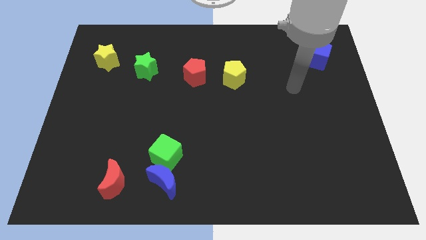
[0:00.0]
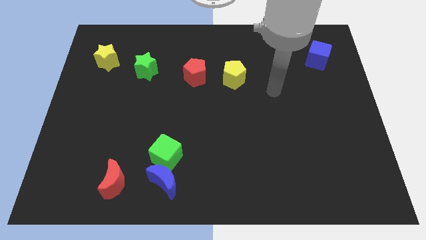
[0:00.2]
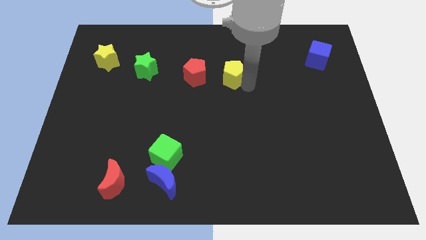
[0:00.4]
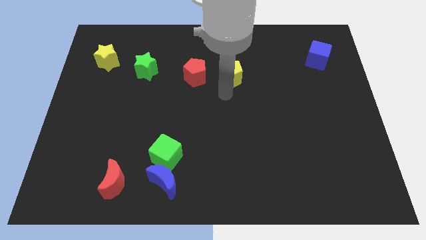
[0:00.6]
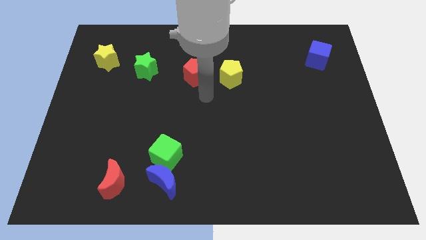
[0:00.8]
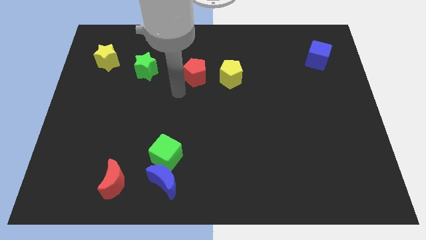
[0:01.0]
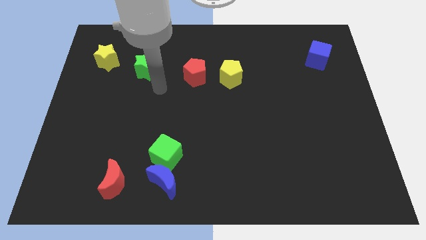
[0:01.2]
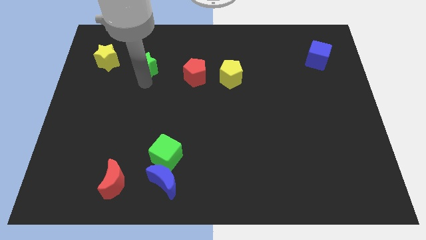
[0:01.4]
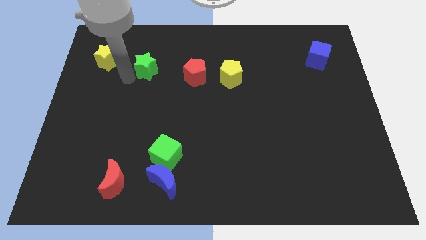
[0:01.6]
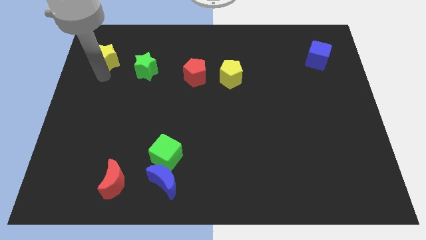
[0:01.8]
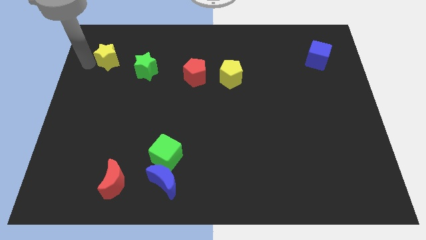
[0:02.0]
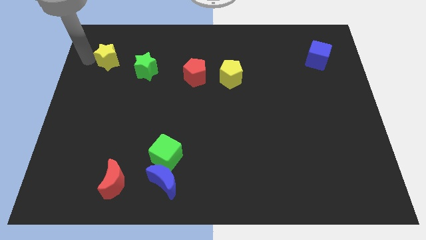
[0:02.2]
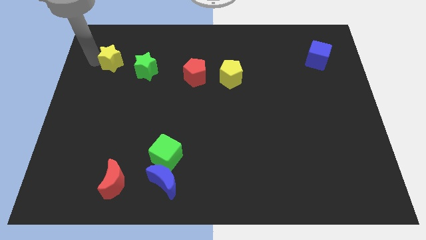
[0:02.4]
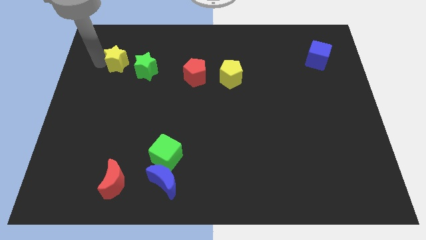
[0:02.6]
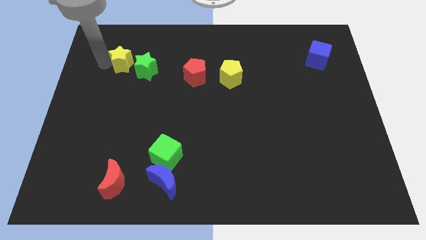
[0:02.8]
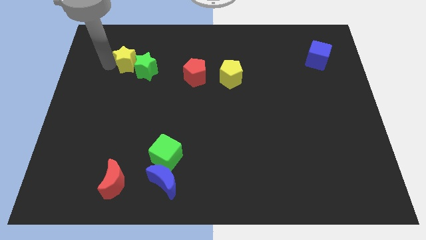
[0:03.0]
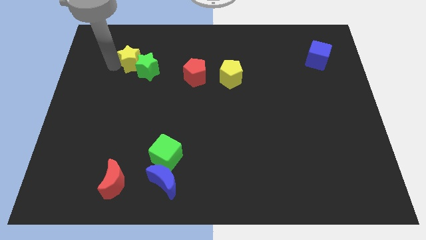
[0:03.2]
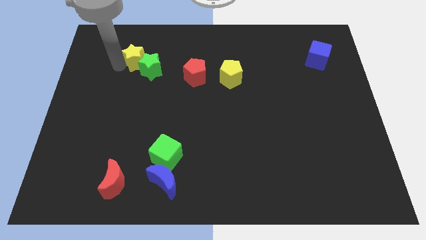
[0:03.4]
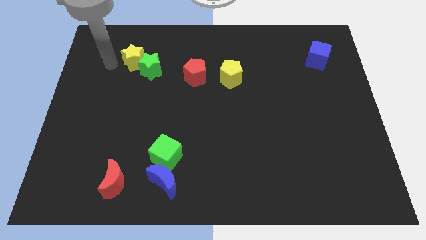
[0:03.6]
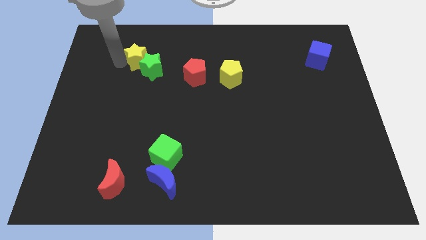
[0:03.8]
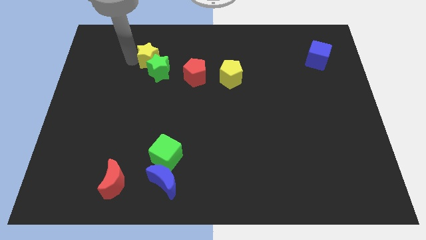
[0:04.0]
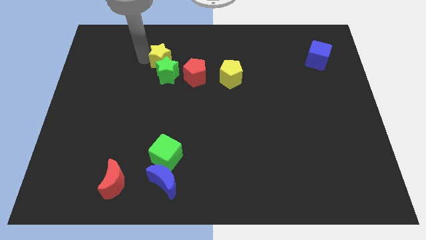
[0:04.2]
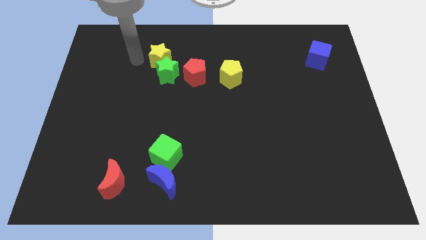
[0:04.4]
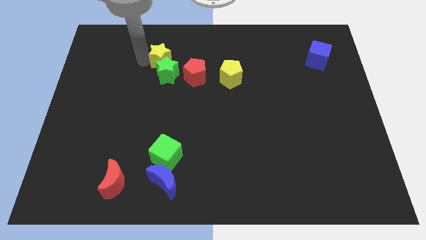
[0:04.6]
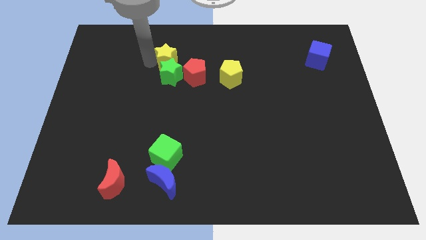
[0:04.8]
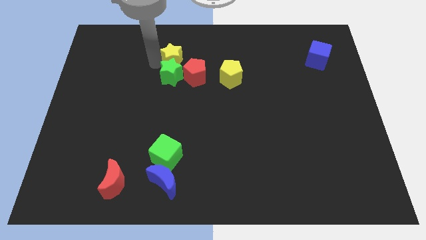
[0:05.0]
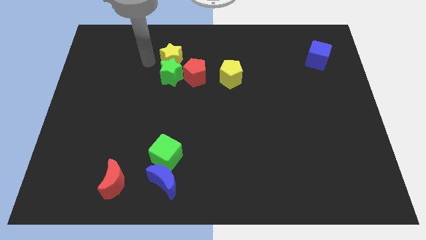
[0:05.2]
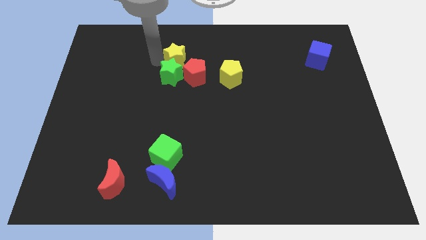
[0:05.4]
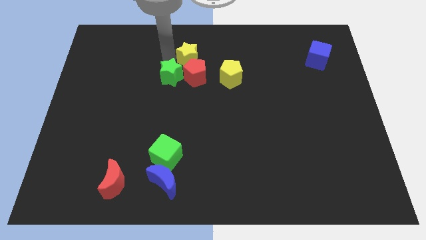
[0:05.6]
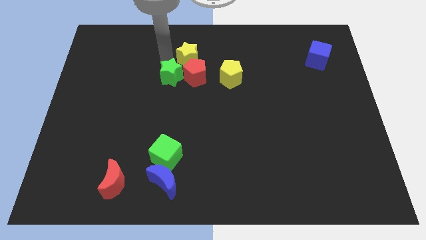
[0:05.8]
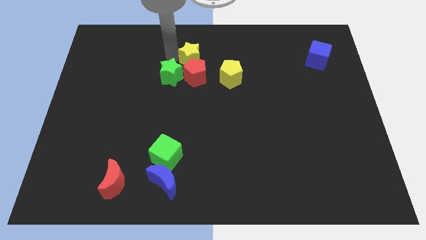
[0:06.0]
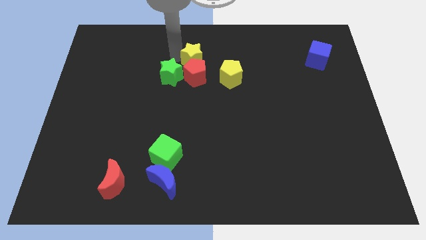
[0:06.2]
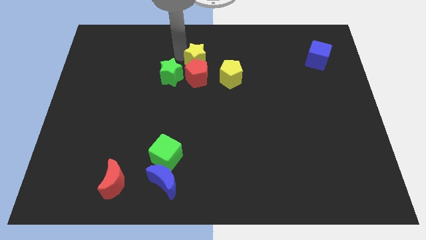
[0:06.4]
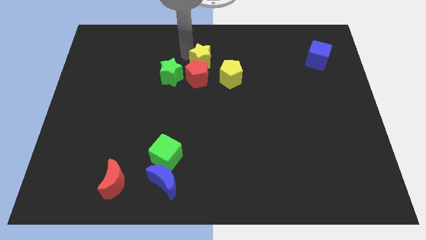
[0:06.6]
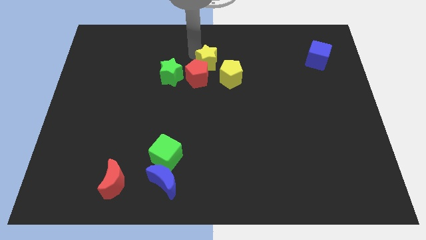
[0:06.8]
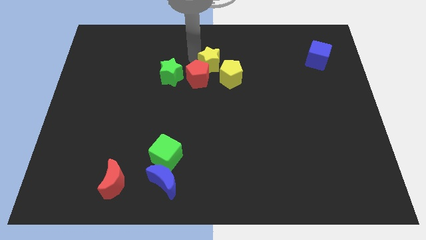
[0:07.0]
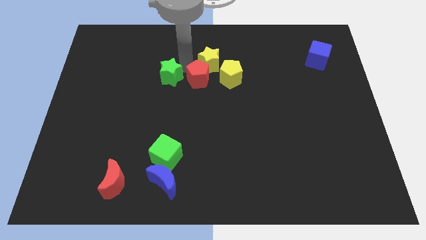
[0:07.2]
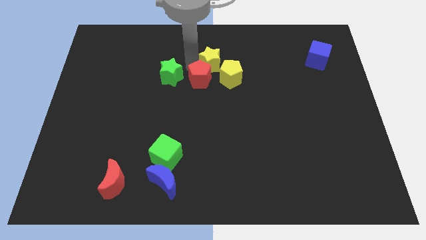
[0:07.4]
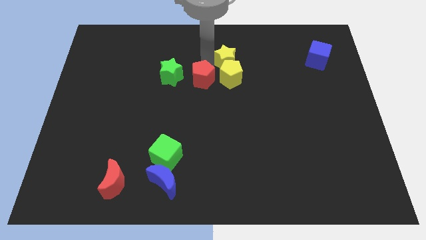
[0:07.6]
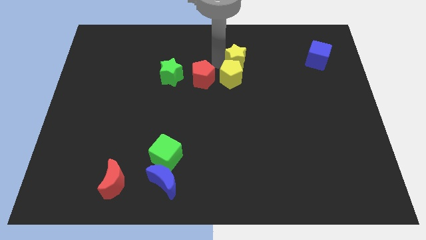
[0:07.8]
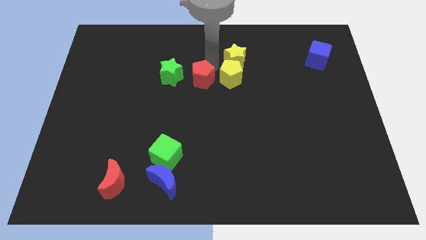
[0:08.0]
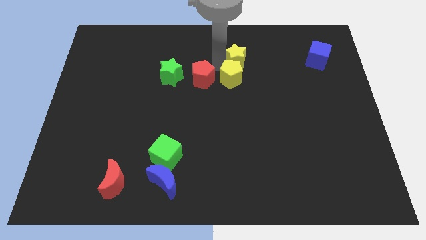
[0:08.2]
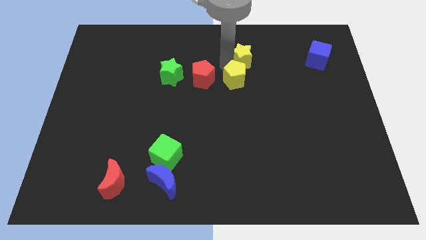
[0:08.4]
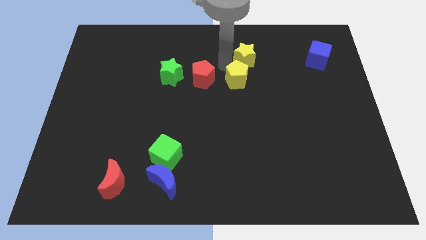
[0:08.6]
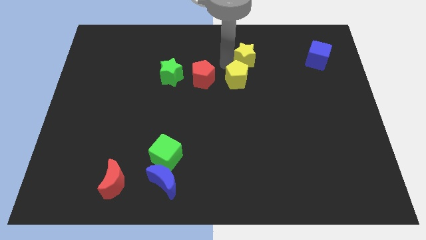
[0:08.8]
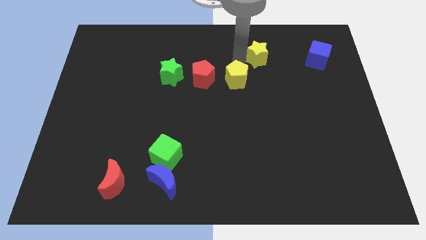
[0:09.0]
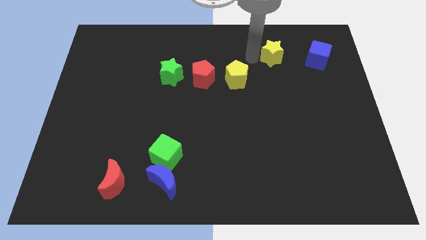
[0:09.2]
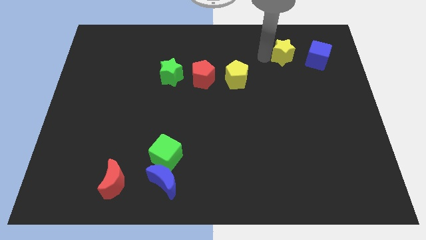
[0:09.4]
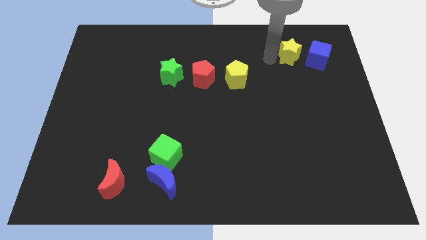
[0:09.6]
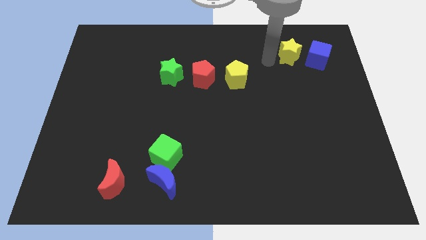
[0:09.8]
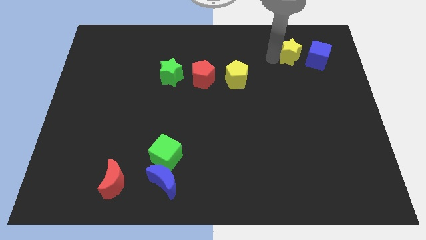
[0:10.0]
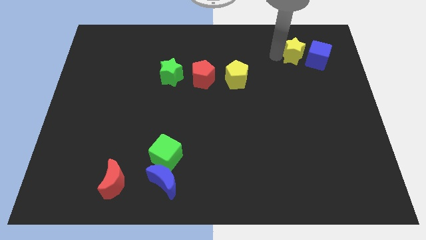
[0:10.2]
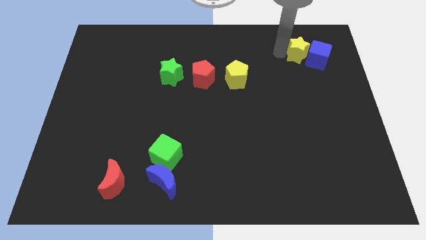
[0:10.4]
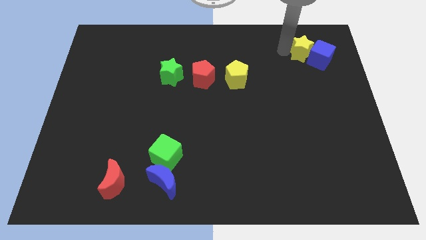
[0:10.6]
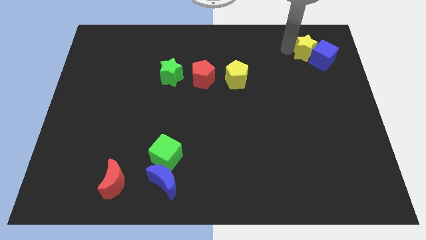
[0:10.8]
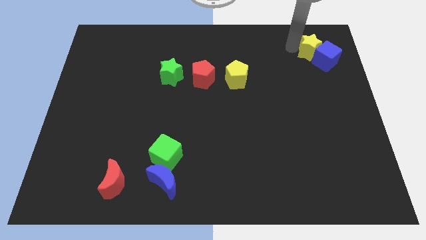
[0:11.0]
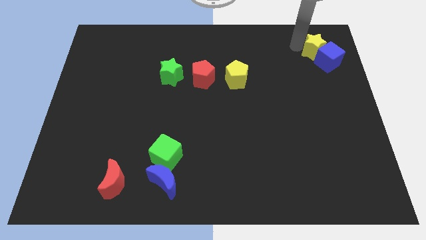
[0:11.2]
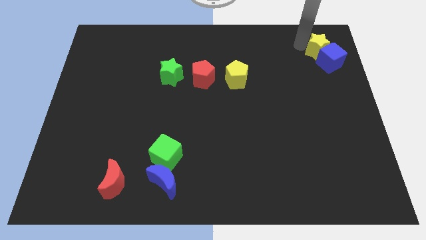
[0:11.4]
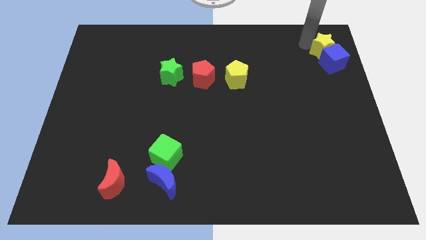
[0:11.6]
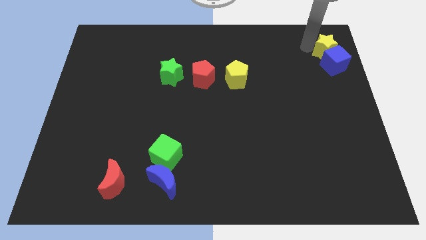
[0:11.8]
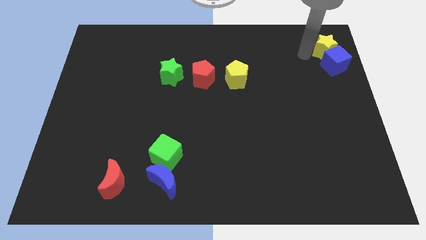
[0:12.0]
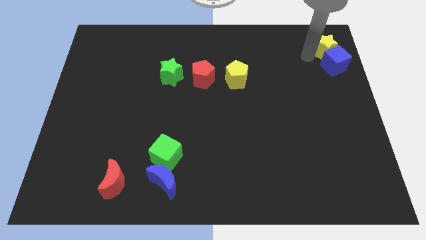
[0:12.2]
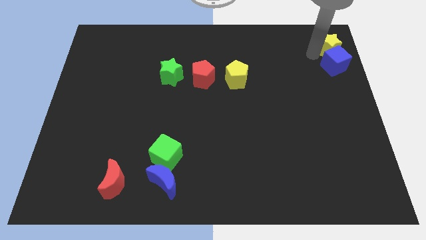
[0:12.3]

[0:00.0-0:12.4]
slide the yellow star to the top right of the board
